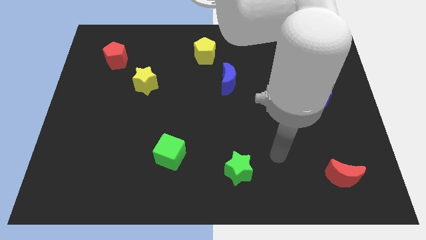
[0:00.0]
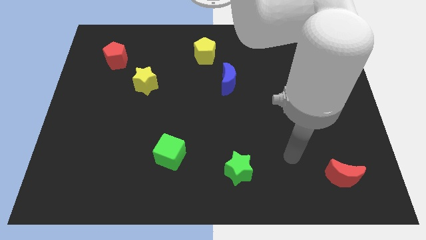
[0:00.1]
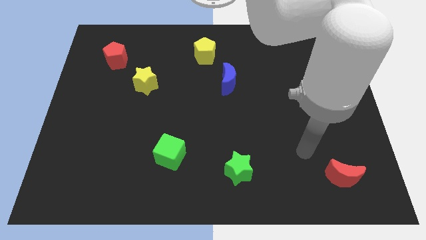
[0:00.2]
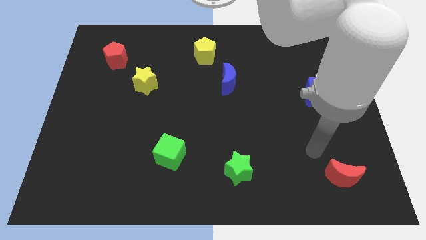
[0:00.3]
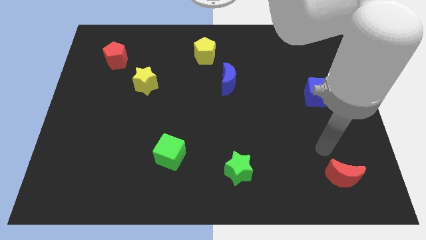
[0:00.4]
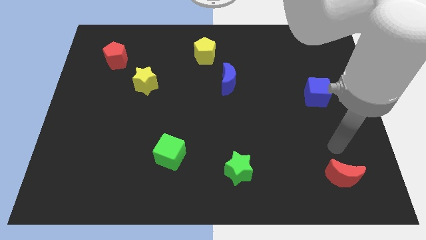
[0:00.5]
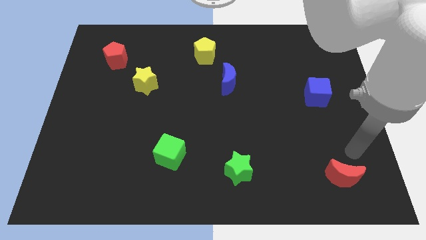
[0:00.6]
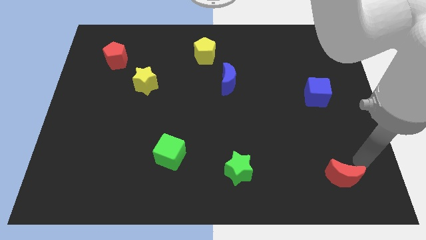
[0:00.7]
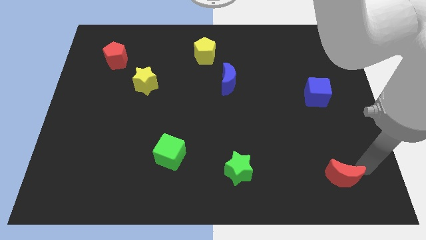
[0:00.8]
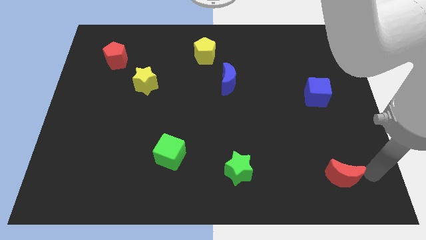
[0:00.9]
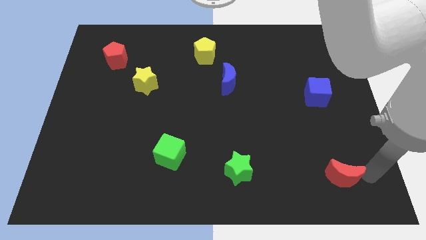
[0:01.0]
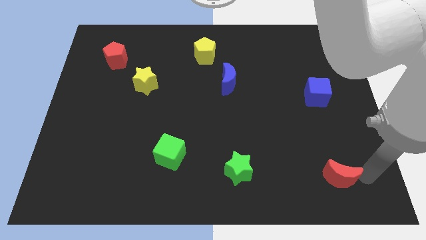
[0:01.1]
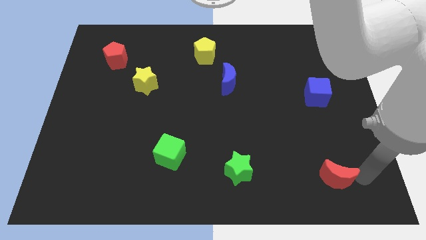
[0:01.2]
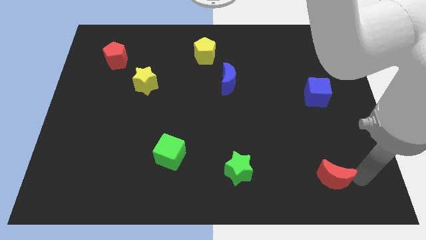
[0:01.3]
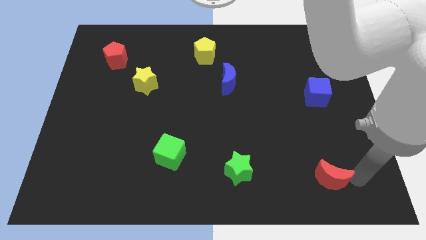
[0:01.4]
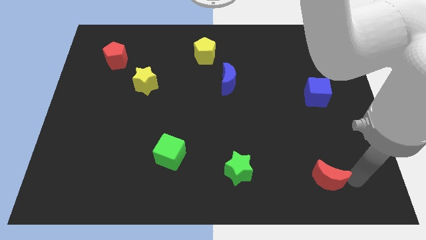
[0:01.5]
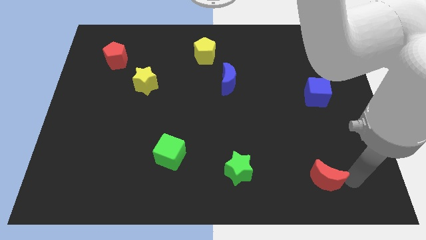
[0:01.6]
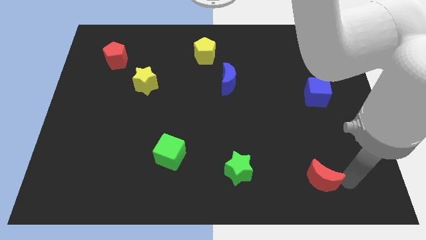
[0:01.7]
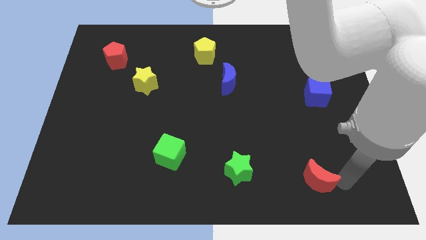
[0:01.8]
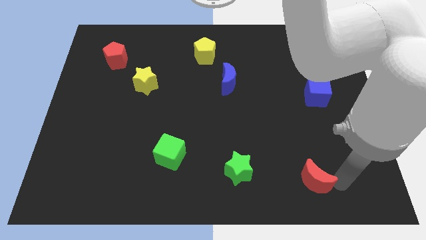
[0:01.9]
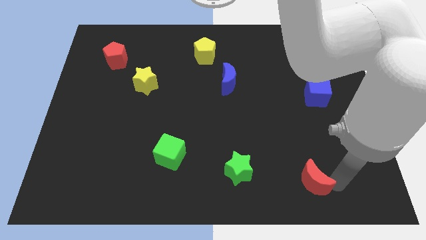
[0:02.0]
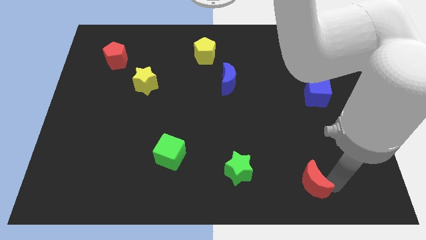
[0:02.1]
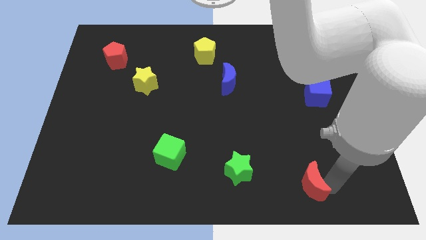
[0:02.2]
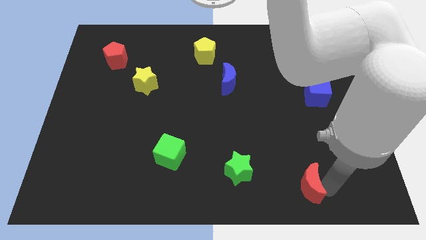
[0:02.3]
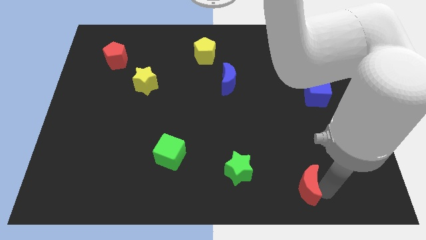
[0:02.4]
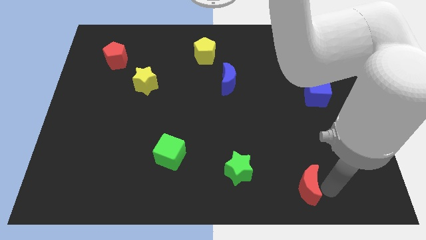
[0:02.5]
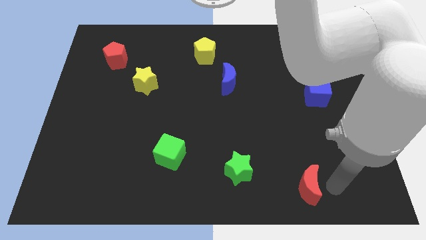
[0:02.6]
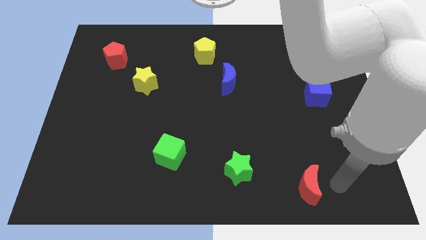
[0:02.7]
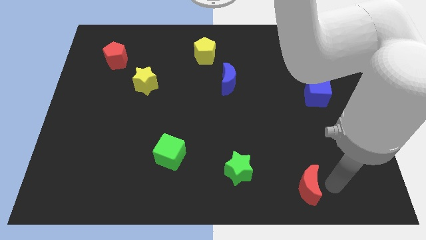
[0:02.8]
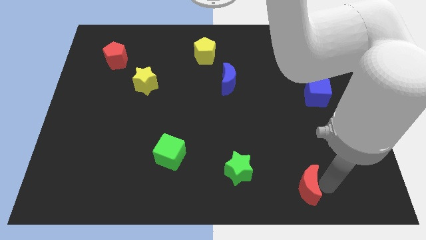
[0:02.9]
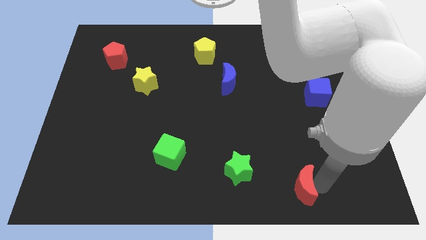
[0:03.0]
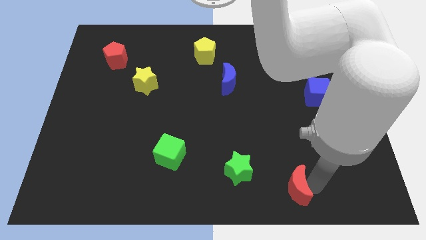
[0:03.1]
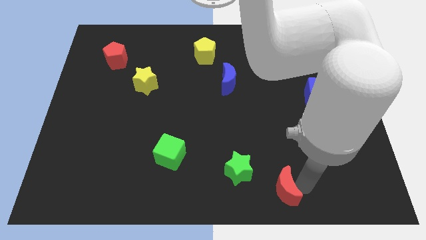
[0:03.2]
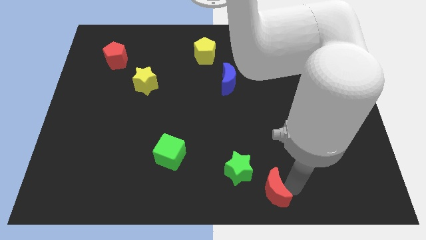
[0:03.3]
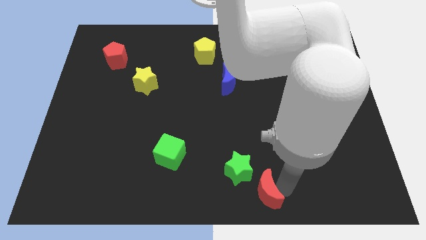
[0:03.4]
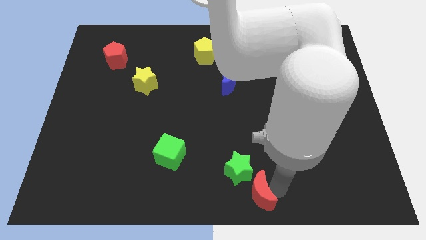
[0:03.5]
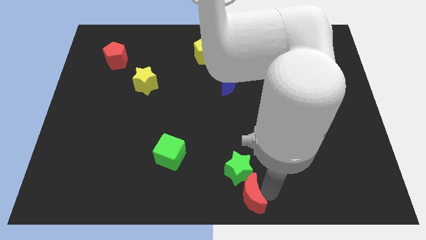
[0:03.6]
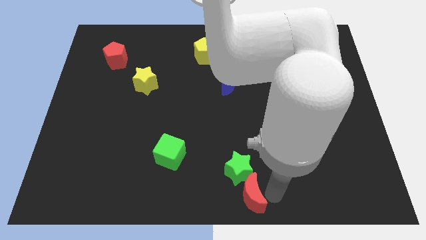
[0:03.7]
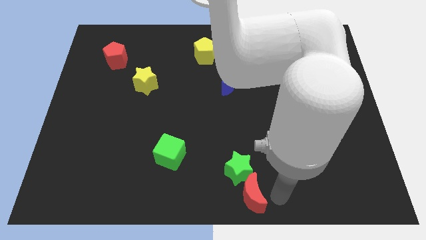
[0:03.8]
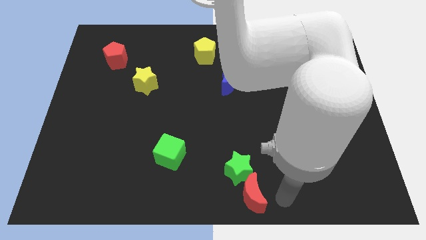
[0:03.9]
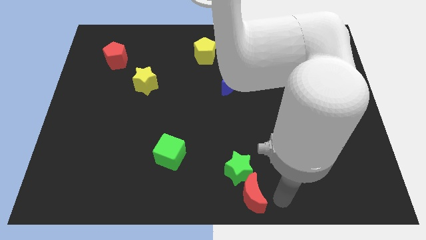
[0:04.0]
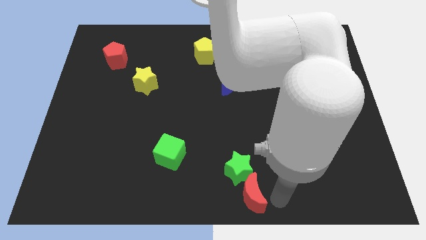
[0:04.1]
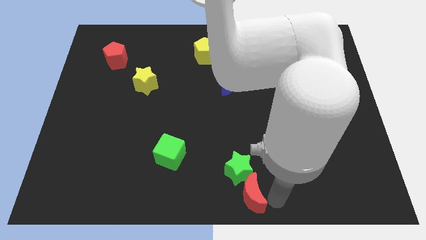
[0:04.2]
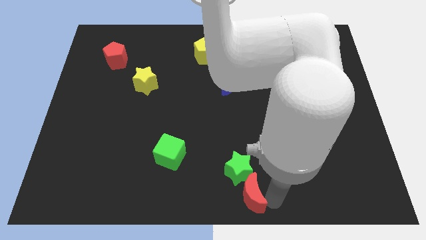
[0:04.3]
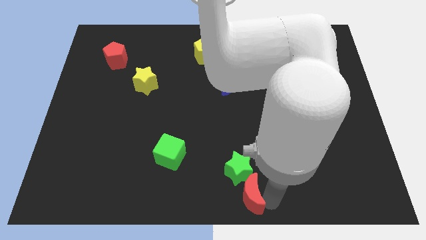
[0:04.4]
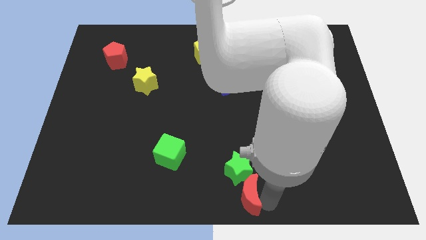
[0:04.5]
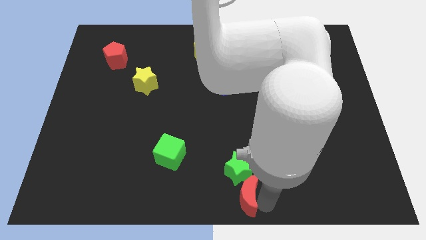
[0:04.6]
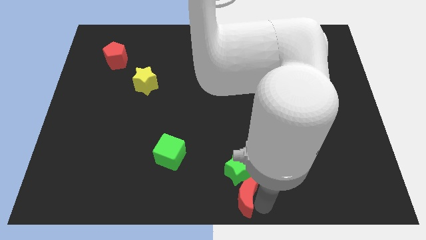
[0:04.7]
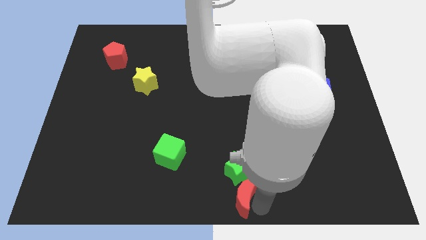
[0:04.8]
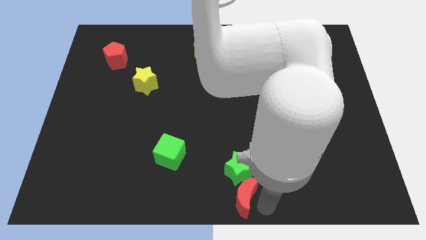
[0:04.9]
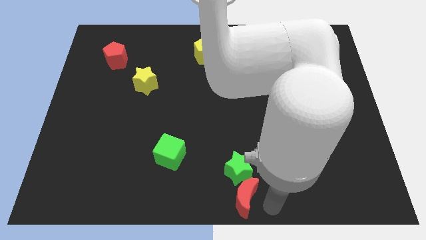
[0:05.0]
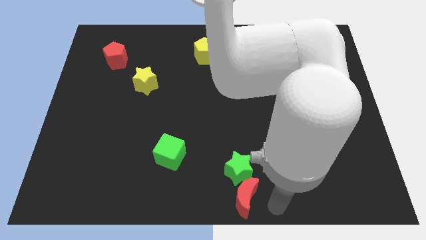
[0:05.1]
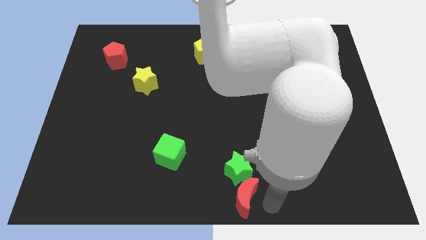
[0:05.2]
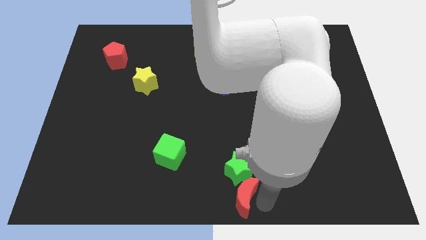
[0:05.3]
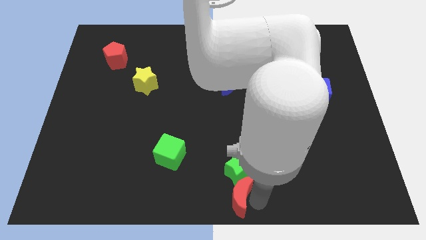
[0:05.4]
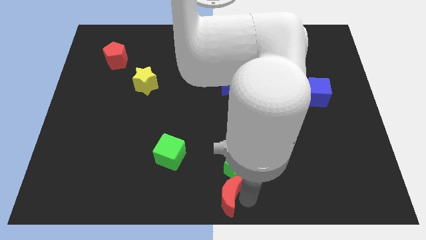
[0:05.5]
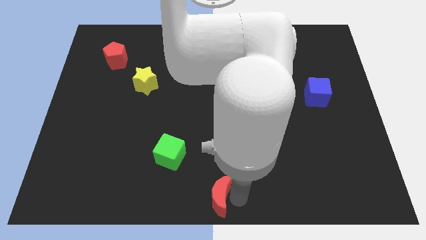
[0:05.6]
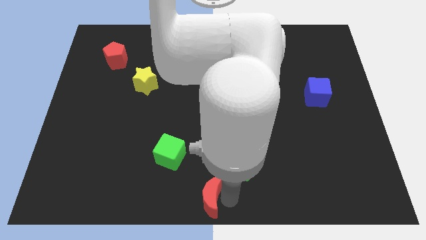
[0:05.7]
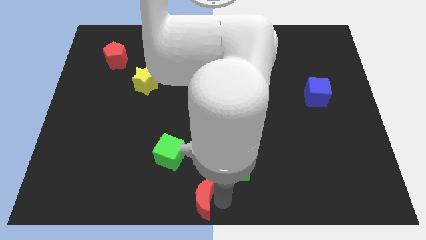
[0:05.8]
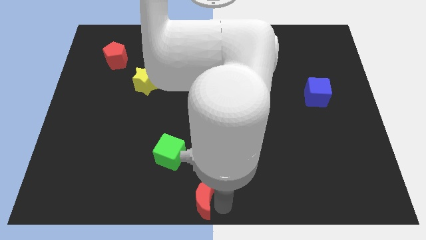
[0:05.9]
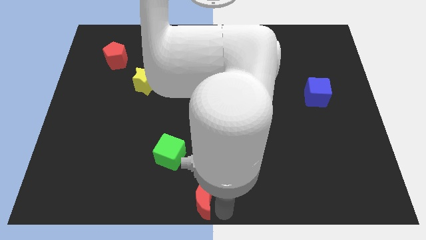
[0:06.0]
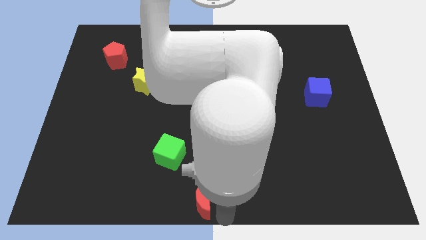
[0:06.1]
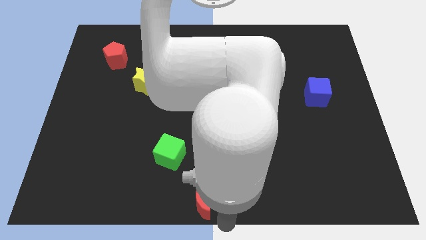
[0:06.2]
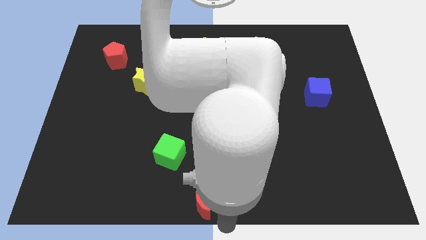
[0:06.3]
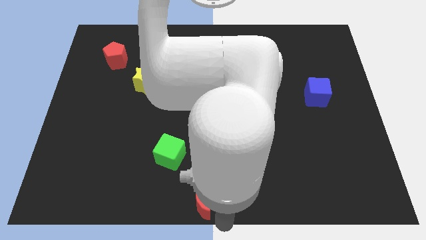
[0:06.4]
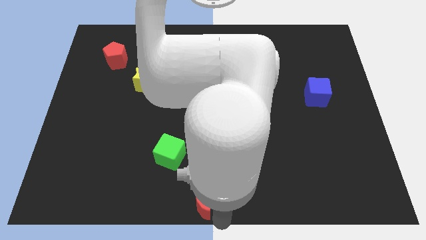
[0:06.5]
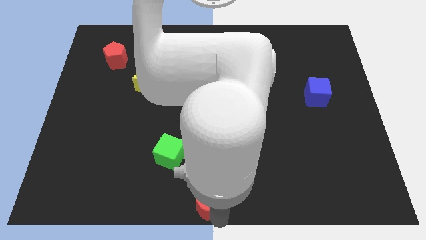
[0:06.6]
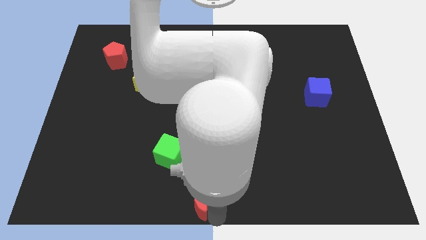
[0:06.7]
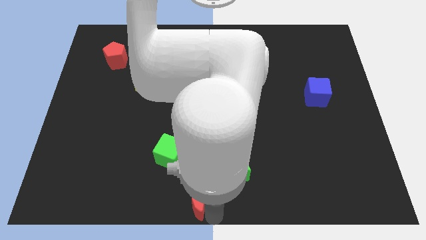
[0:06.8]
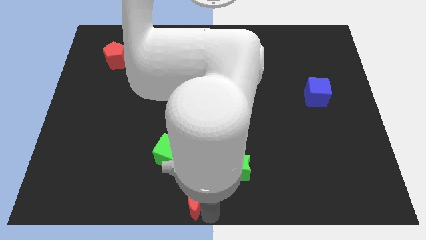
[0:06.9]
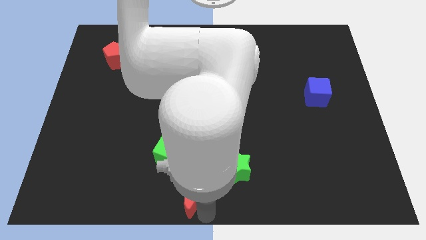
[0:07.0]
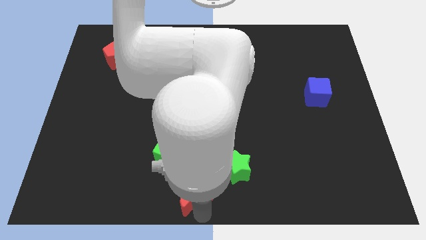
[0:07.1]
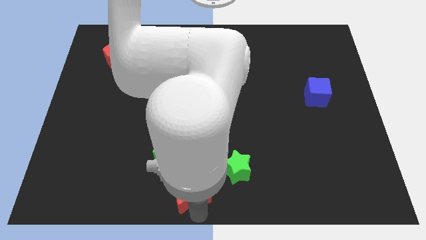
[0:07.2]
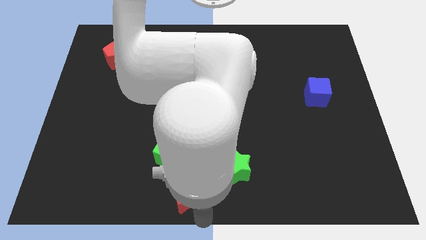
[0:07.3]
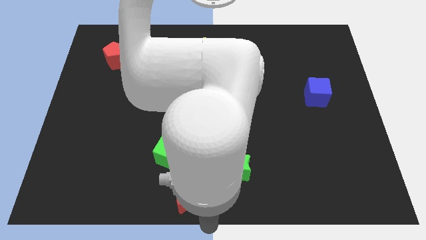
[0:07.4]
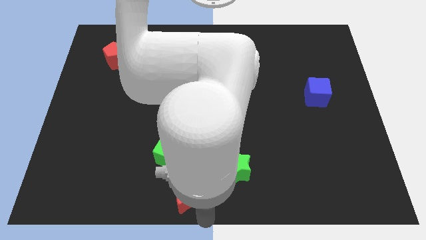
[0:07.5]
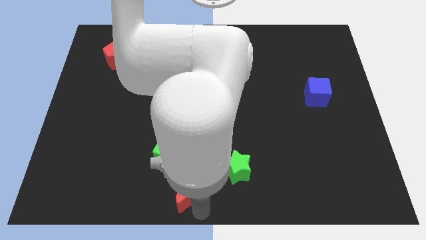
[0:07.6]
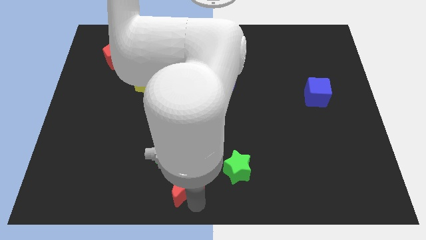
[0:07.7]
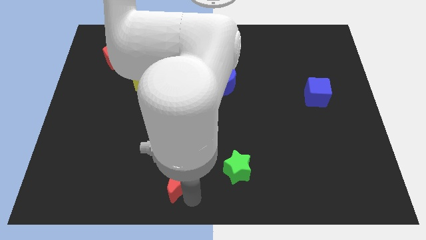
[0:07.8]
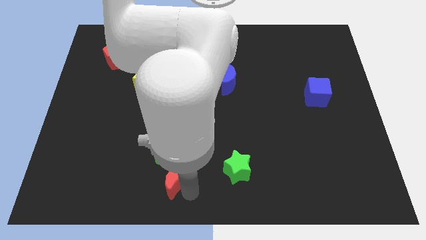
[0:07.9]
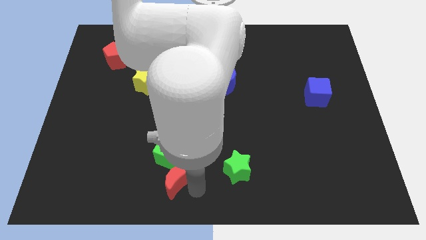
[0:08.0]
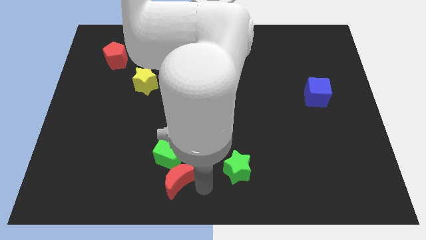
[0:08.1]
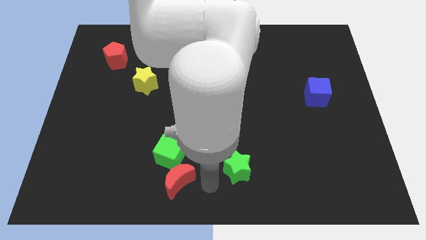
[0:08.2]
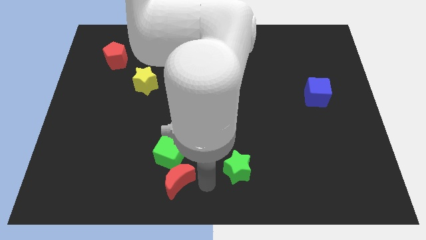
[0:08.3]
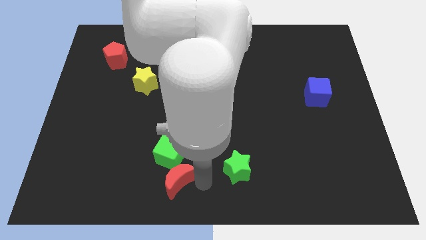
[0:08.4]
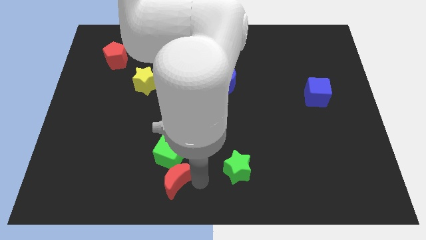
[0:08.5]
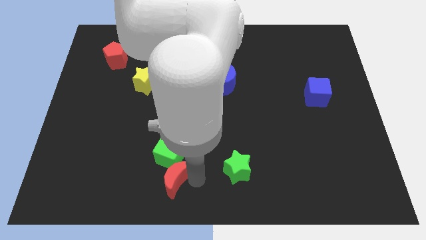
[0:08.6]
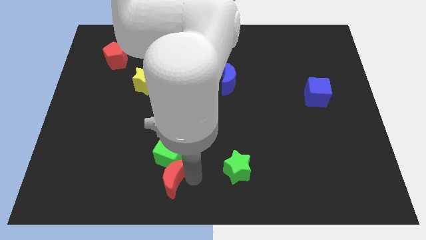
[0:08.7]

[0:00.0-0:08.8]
move the red moon to the bottom left of the green cube
